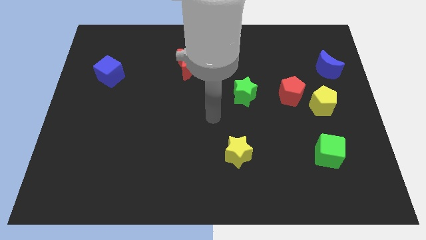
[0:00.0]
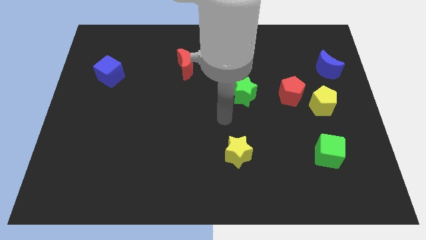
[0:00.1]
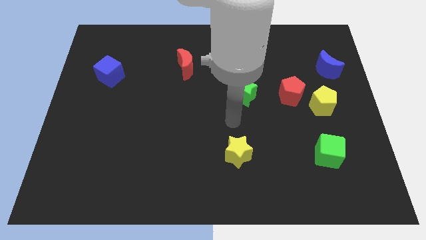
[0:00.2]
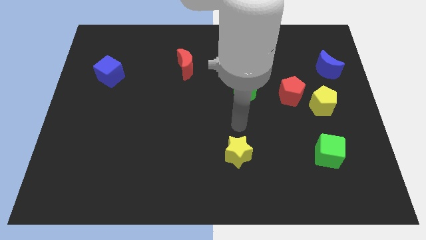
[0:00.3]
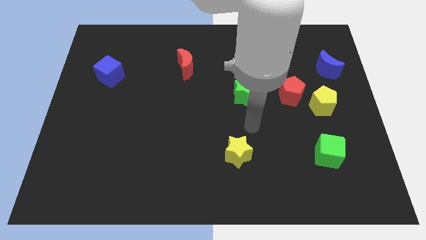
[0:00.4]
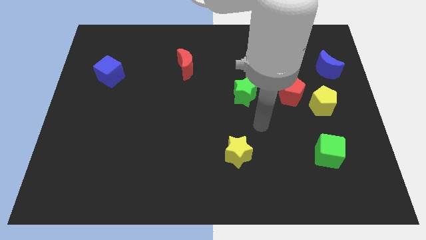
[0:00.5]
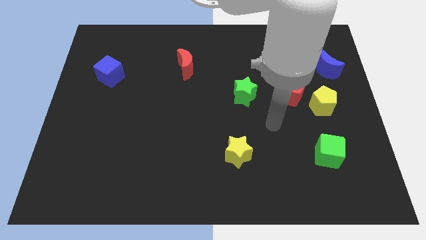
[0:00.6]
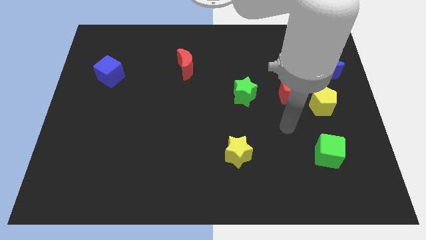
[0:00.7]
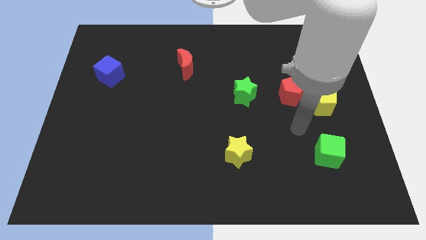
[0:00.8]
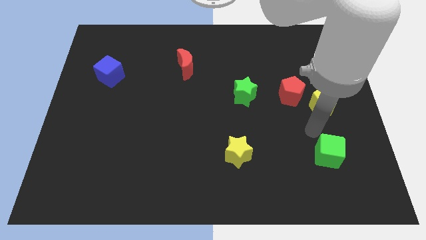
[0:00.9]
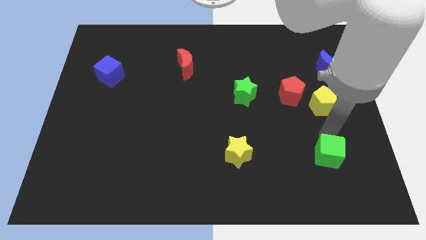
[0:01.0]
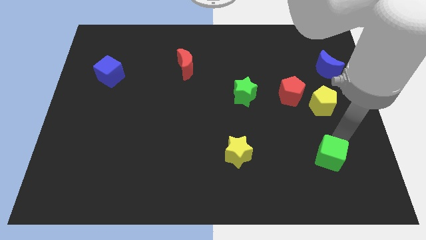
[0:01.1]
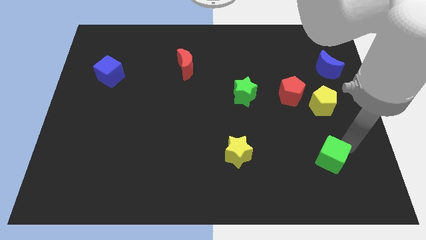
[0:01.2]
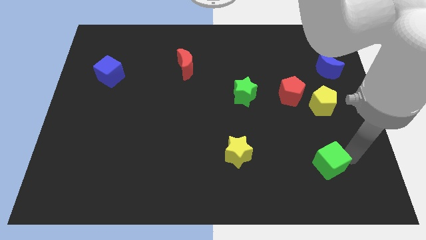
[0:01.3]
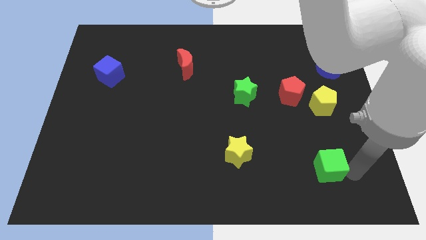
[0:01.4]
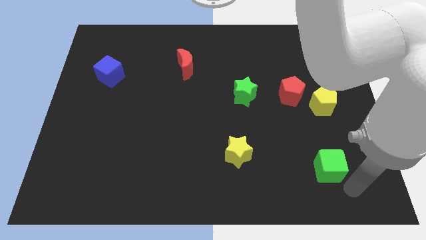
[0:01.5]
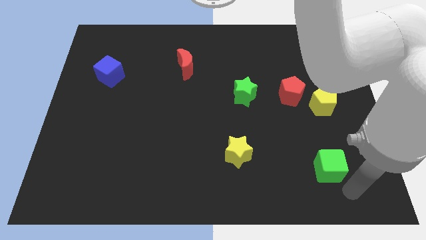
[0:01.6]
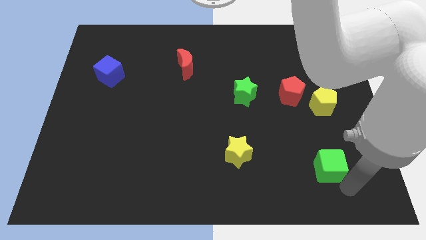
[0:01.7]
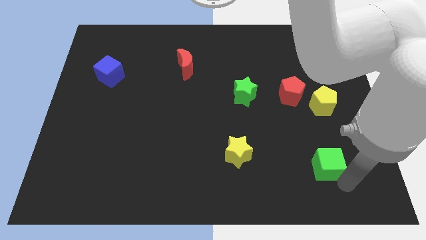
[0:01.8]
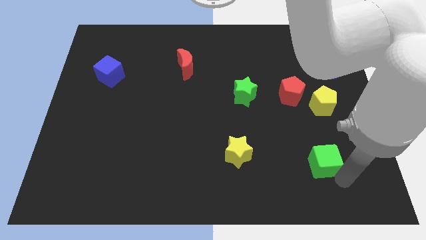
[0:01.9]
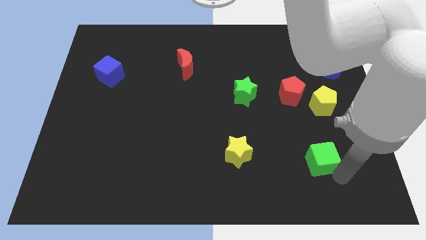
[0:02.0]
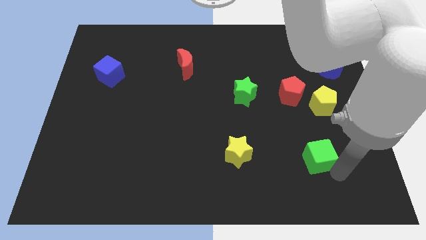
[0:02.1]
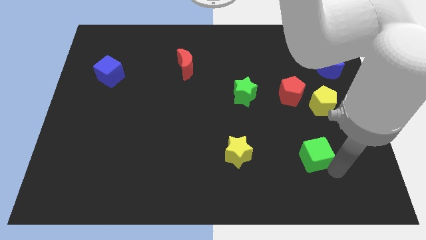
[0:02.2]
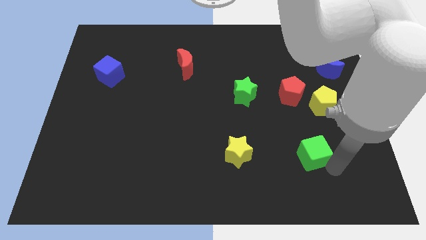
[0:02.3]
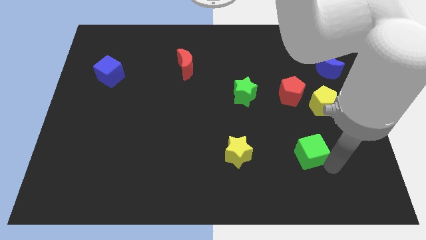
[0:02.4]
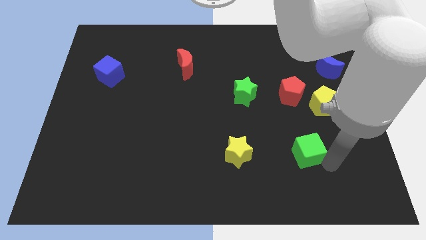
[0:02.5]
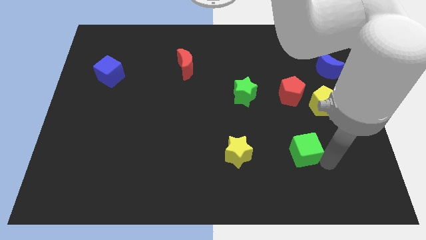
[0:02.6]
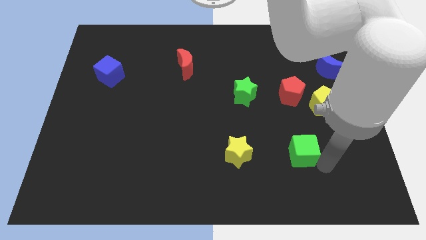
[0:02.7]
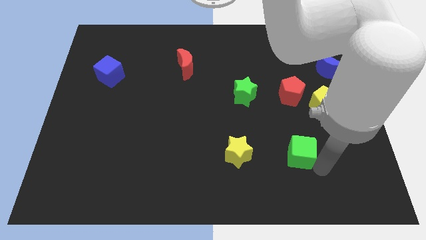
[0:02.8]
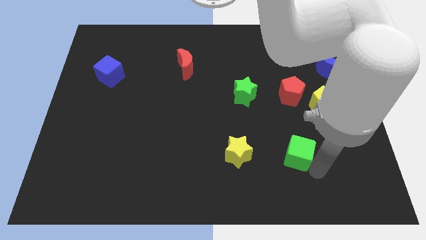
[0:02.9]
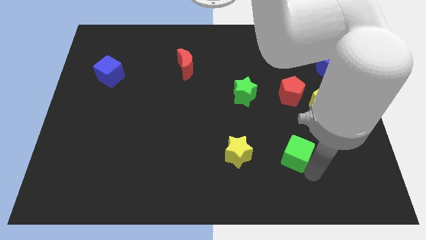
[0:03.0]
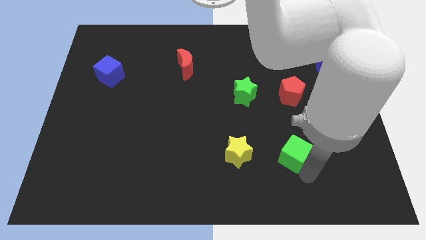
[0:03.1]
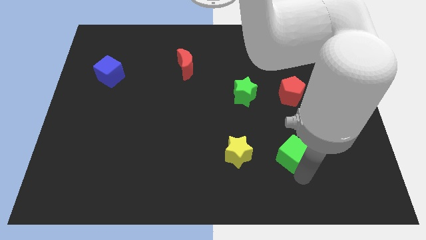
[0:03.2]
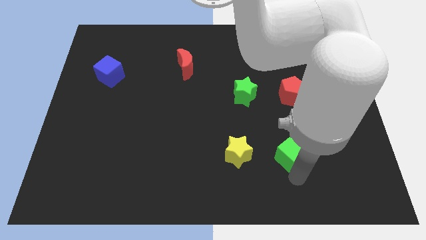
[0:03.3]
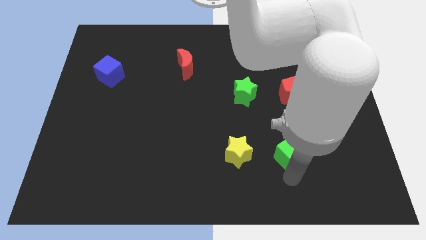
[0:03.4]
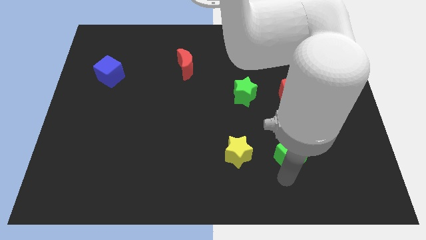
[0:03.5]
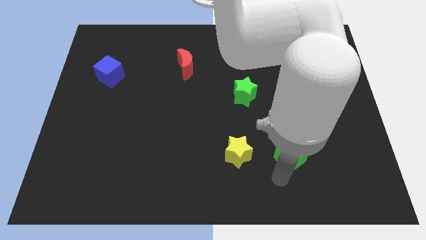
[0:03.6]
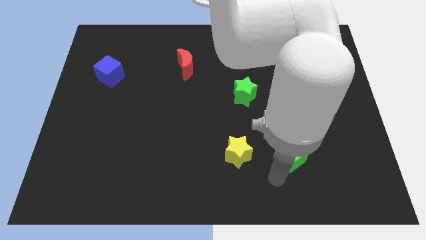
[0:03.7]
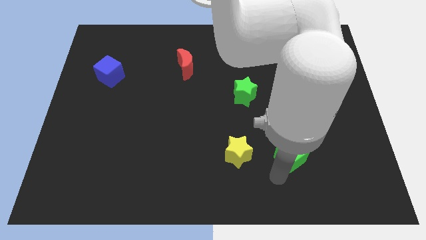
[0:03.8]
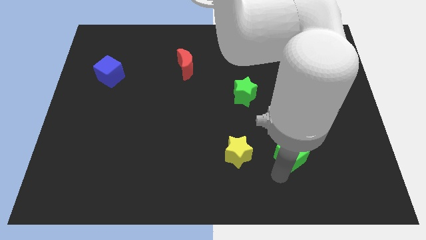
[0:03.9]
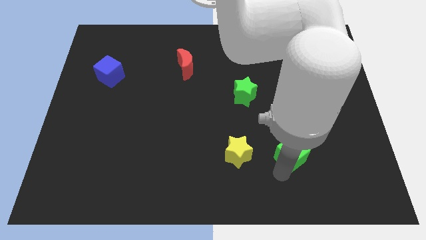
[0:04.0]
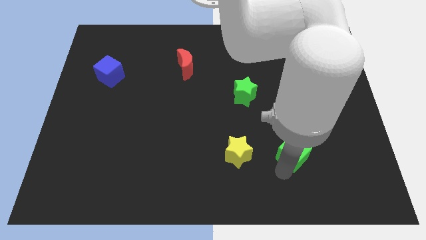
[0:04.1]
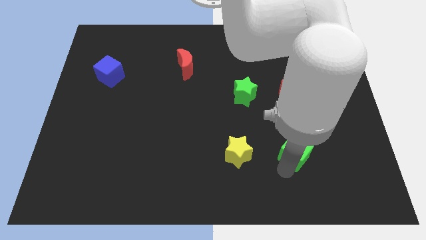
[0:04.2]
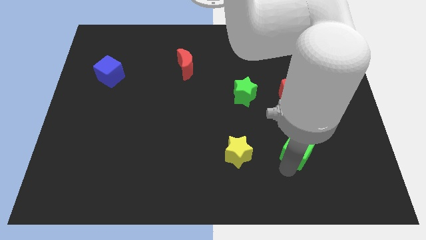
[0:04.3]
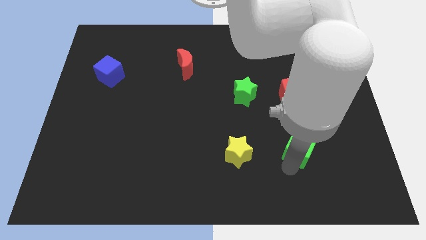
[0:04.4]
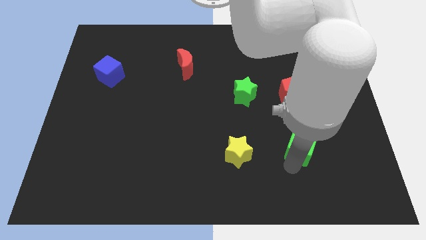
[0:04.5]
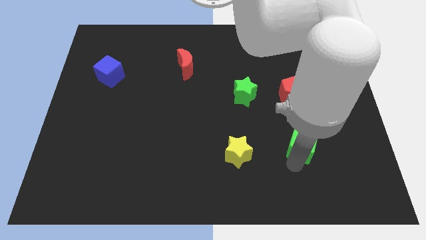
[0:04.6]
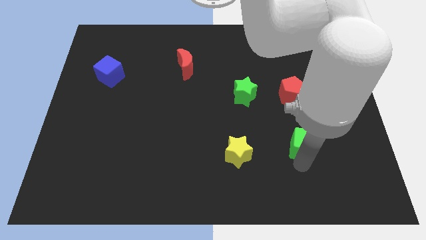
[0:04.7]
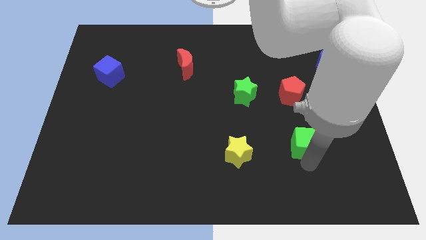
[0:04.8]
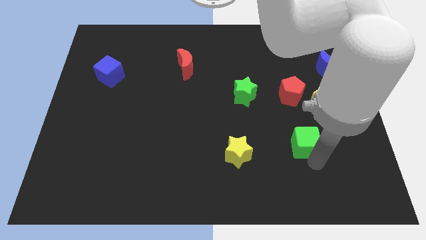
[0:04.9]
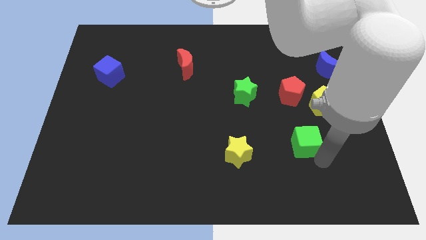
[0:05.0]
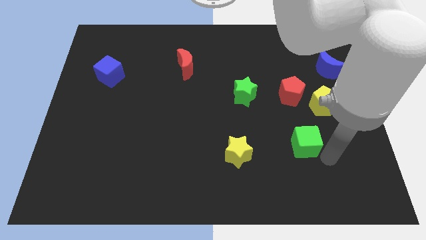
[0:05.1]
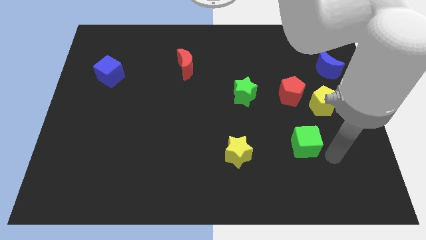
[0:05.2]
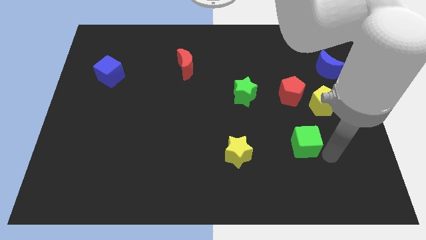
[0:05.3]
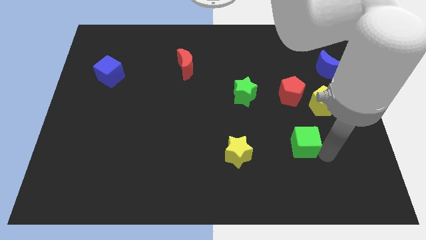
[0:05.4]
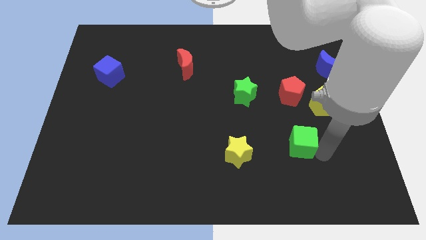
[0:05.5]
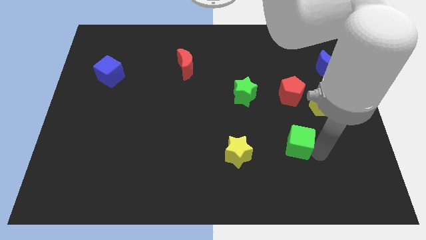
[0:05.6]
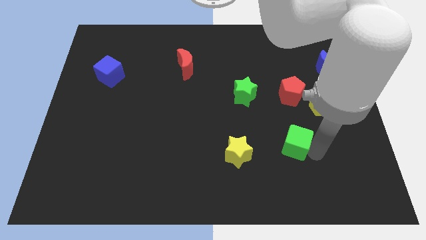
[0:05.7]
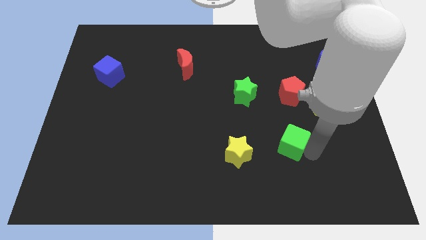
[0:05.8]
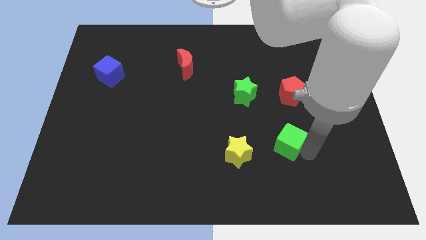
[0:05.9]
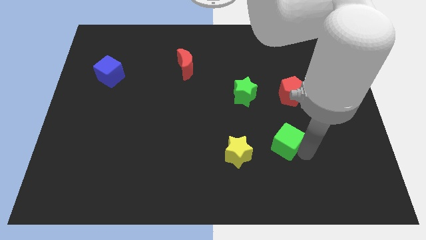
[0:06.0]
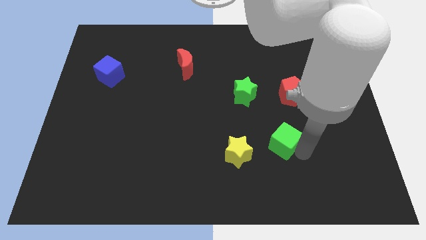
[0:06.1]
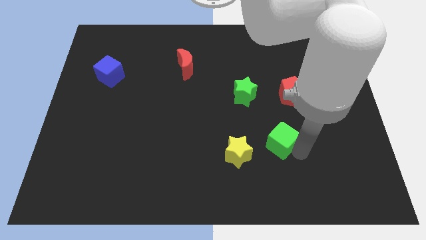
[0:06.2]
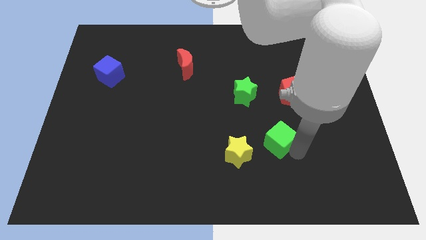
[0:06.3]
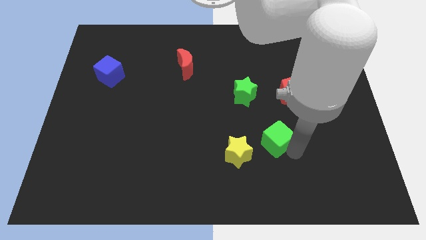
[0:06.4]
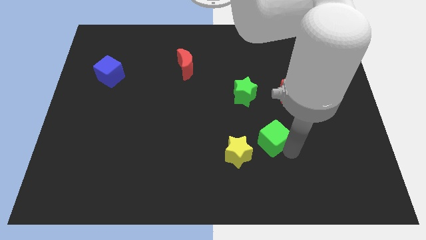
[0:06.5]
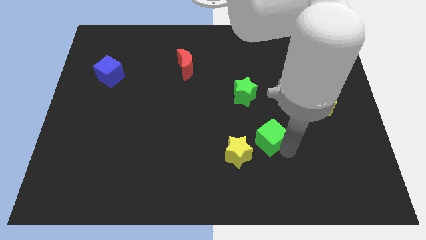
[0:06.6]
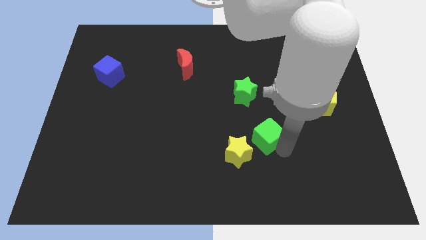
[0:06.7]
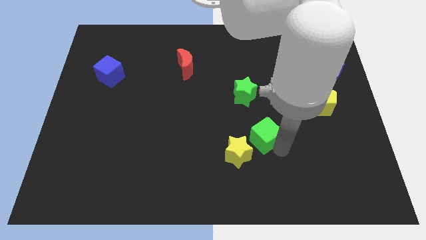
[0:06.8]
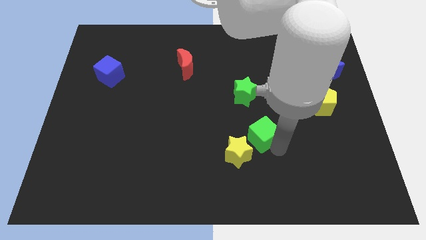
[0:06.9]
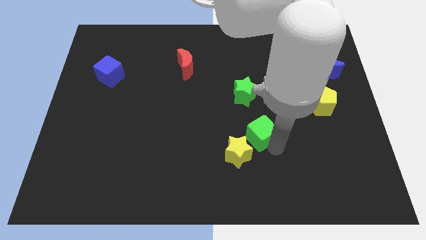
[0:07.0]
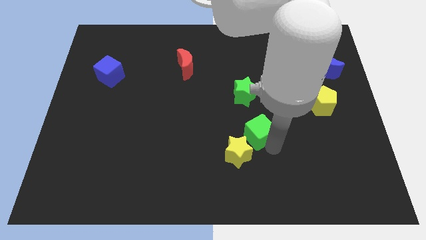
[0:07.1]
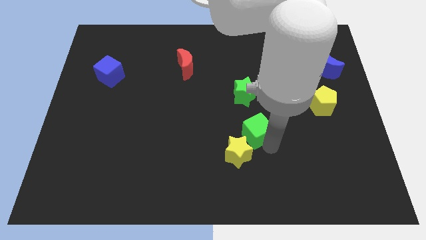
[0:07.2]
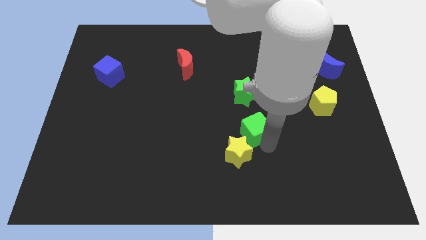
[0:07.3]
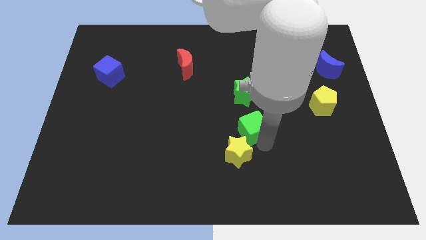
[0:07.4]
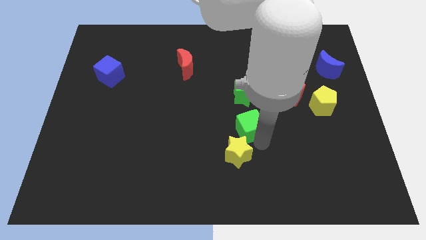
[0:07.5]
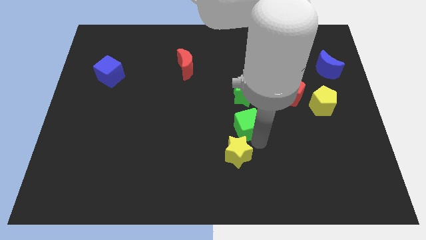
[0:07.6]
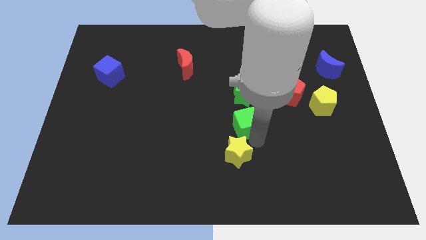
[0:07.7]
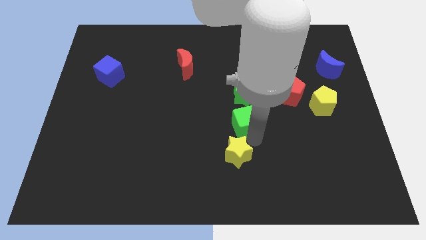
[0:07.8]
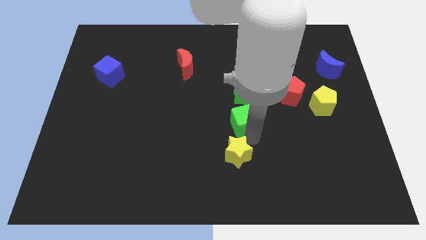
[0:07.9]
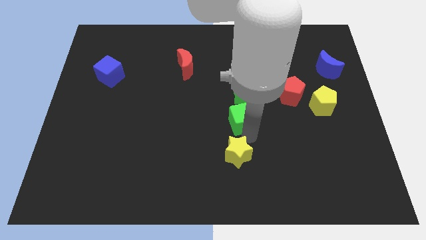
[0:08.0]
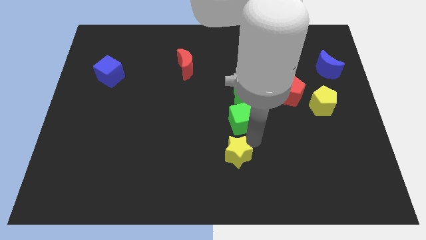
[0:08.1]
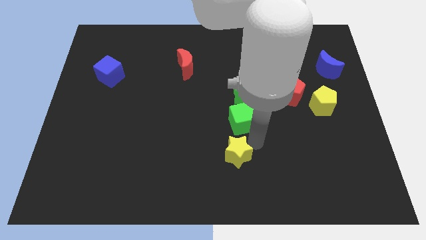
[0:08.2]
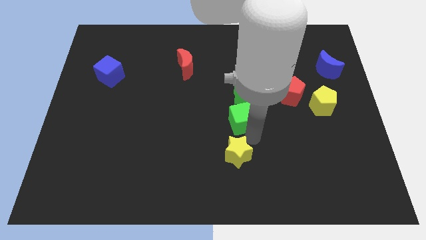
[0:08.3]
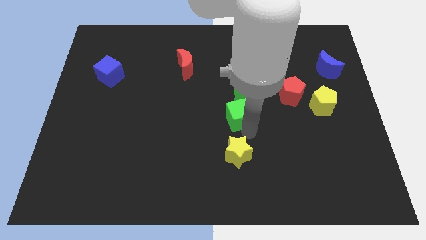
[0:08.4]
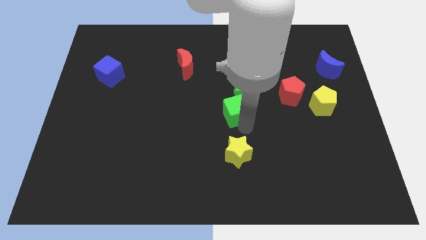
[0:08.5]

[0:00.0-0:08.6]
move the green cube up and left

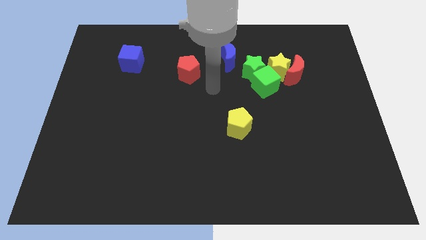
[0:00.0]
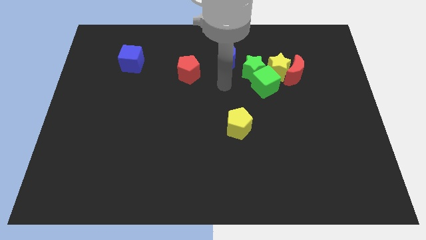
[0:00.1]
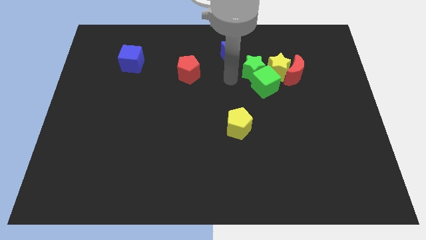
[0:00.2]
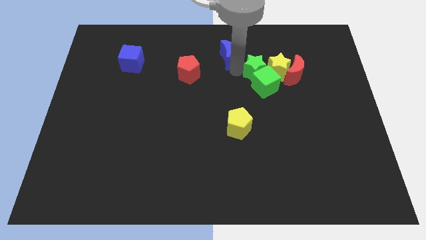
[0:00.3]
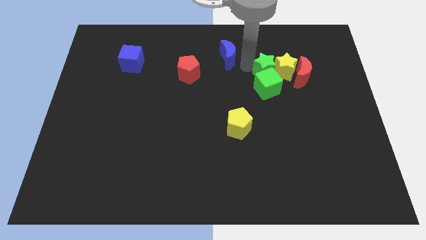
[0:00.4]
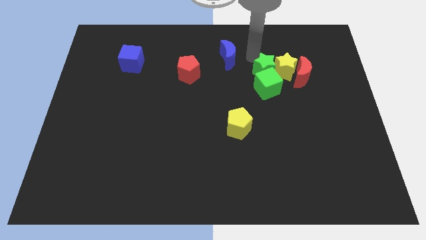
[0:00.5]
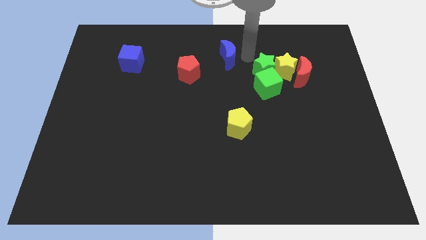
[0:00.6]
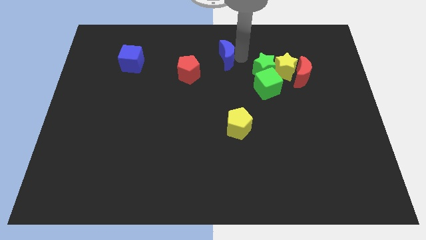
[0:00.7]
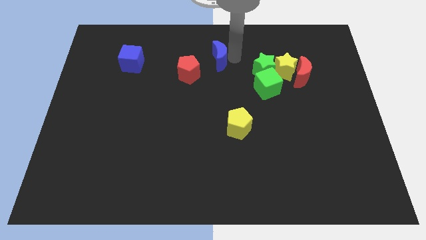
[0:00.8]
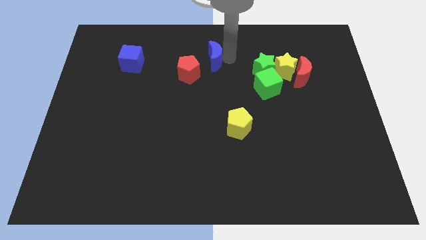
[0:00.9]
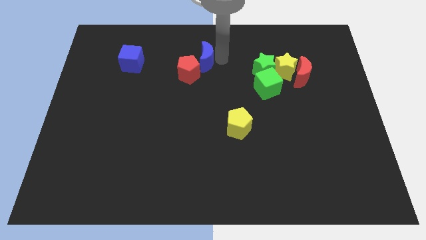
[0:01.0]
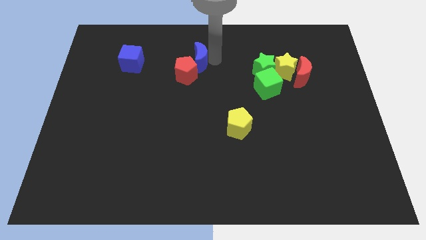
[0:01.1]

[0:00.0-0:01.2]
push the blue moon to the left a bit
